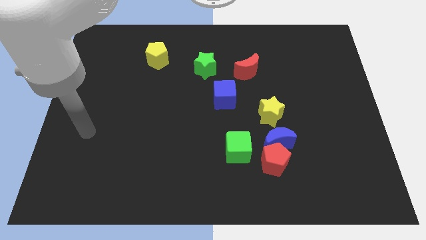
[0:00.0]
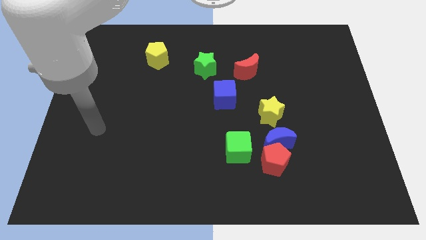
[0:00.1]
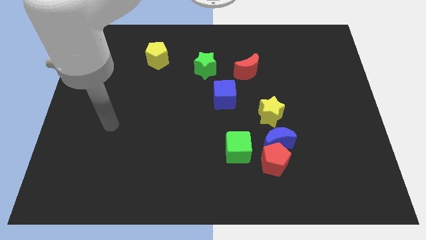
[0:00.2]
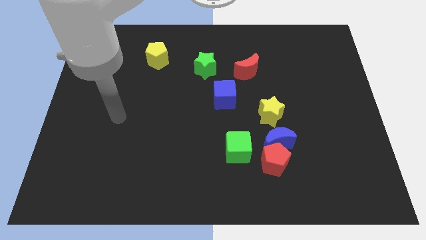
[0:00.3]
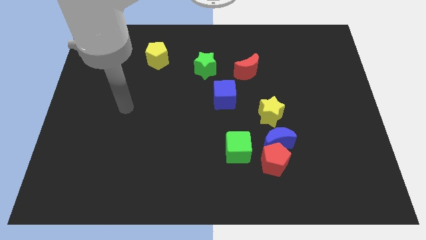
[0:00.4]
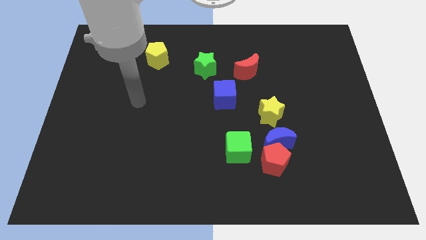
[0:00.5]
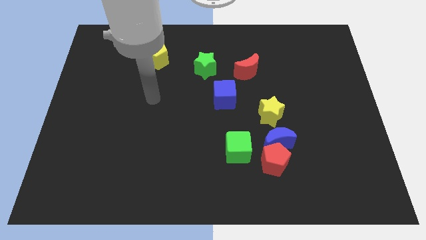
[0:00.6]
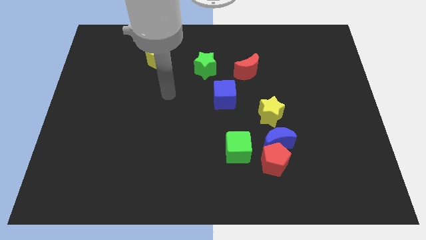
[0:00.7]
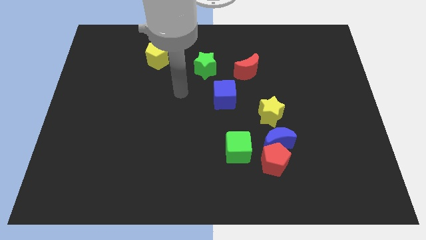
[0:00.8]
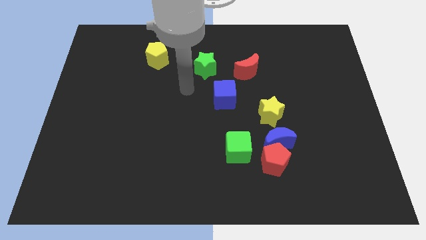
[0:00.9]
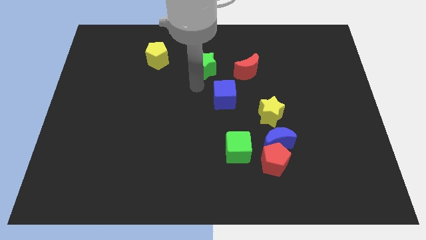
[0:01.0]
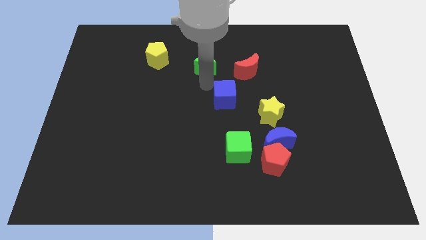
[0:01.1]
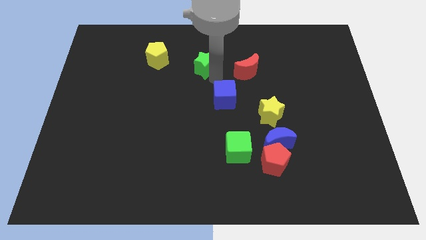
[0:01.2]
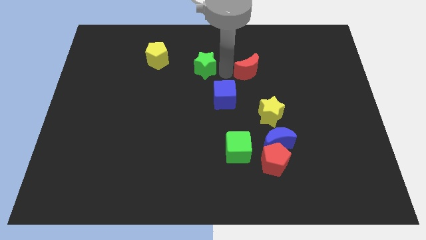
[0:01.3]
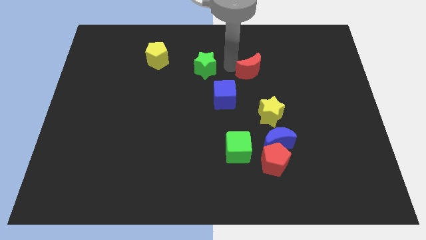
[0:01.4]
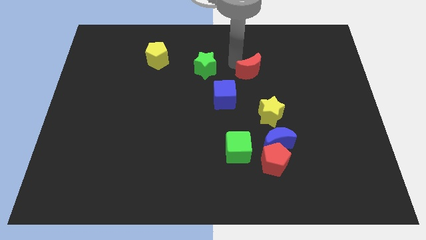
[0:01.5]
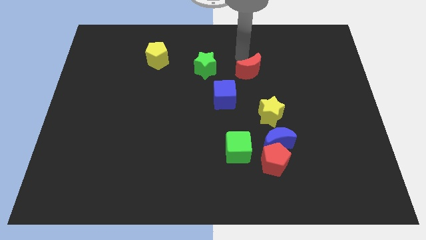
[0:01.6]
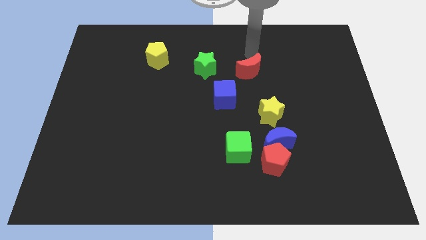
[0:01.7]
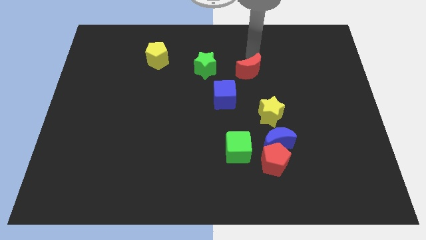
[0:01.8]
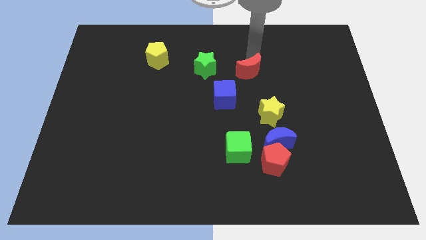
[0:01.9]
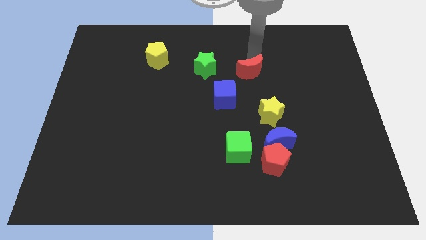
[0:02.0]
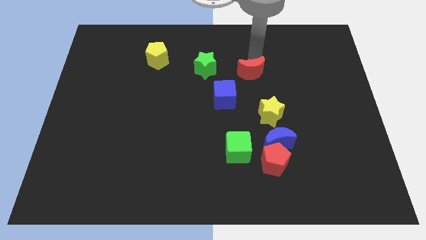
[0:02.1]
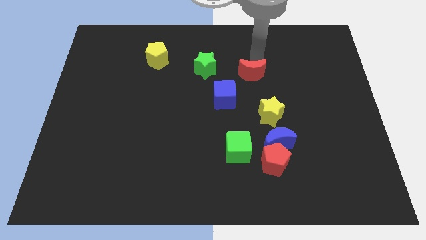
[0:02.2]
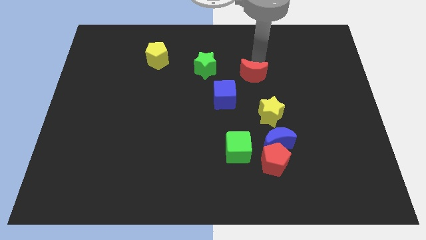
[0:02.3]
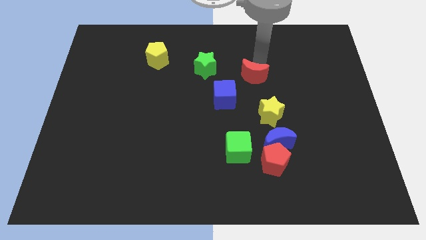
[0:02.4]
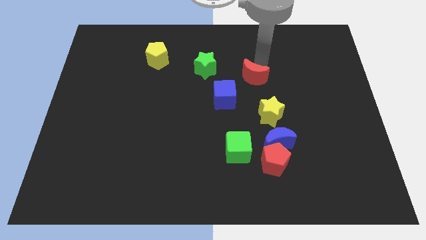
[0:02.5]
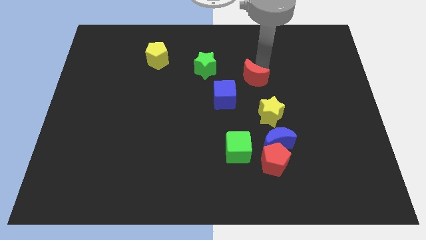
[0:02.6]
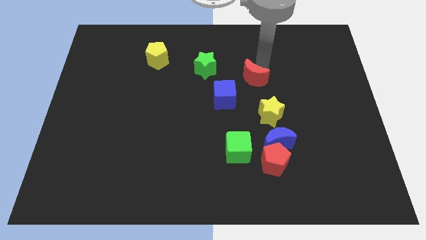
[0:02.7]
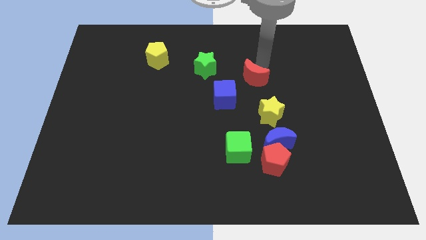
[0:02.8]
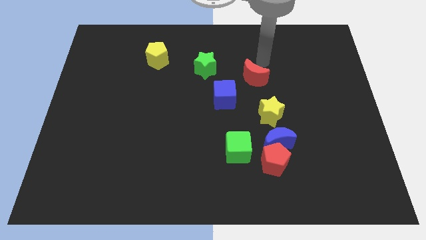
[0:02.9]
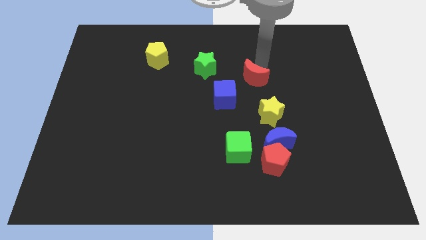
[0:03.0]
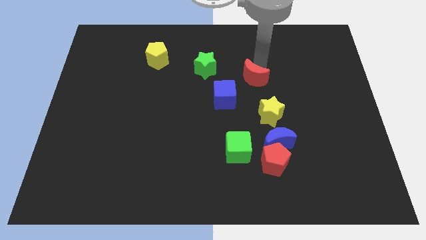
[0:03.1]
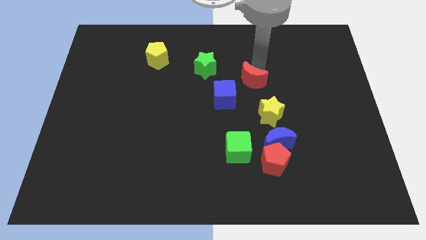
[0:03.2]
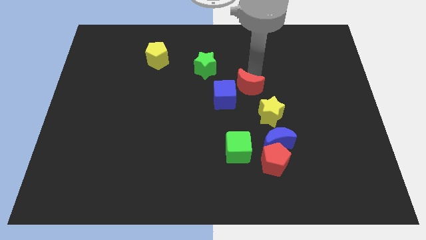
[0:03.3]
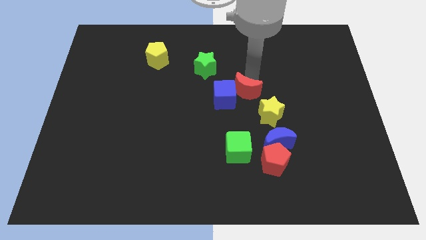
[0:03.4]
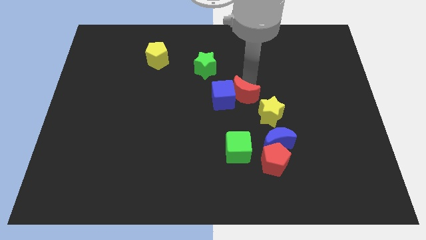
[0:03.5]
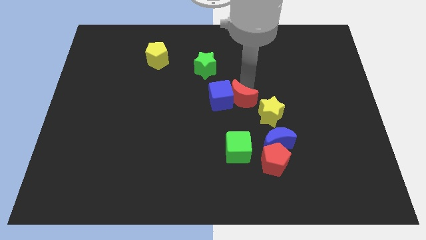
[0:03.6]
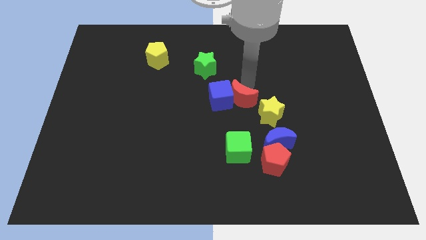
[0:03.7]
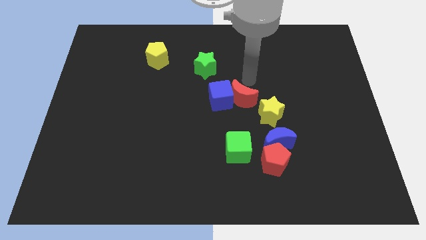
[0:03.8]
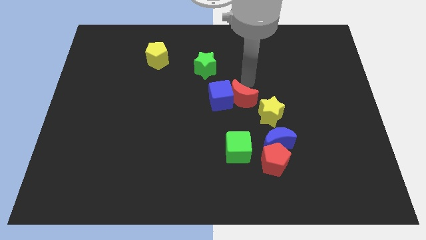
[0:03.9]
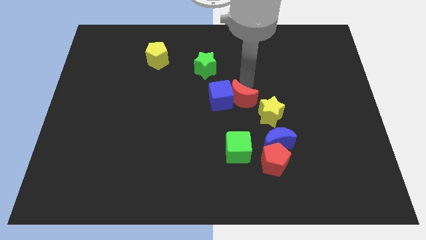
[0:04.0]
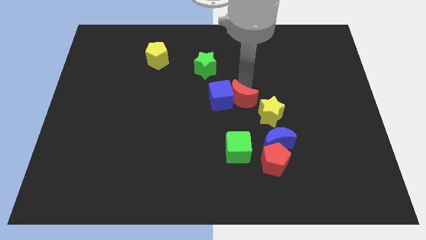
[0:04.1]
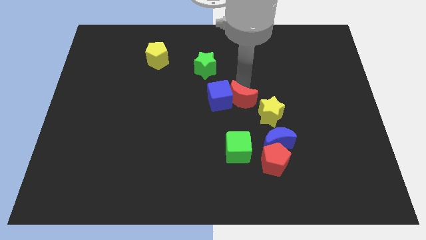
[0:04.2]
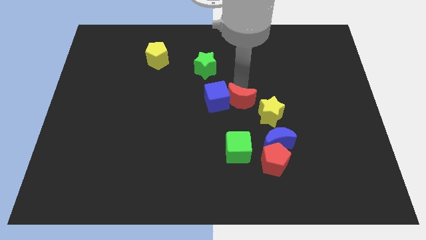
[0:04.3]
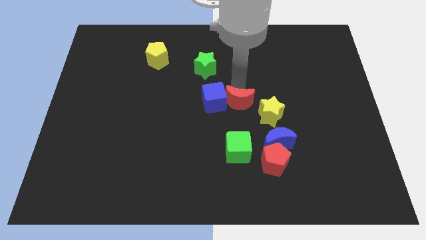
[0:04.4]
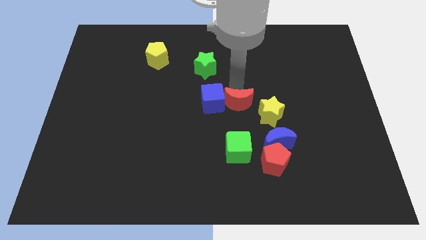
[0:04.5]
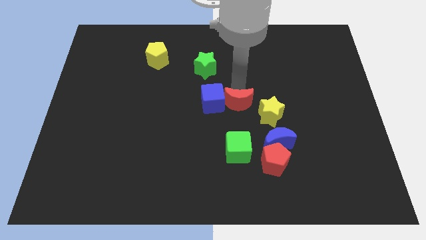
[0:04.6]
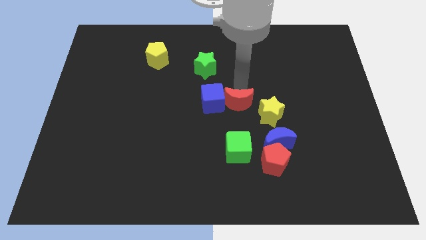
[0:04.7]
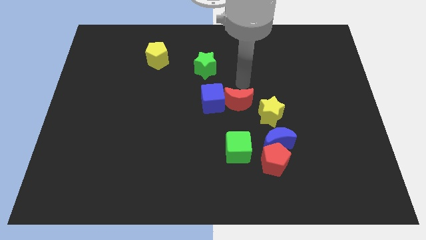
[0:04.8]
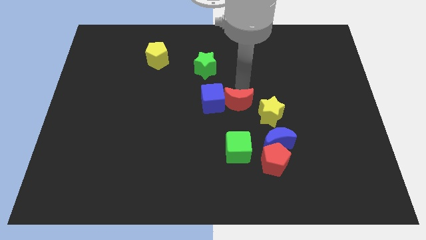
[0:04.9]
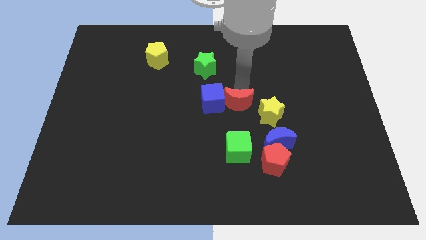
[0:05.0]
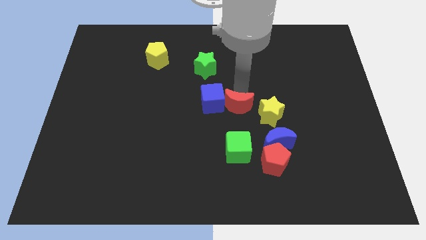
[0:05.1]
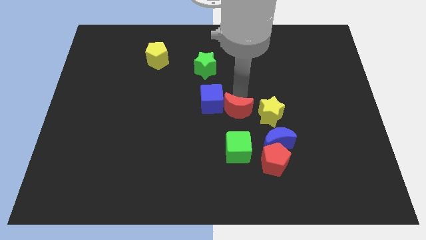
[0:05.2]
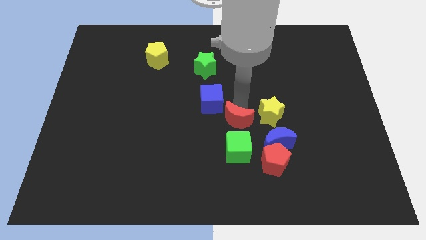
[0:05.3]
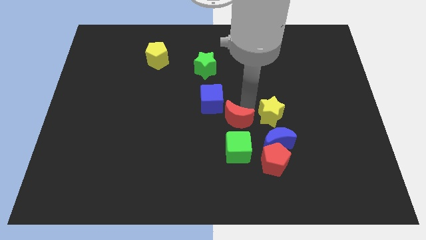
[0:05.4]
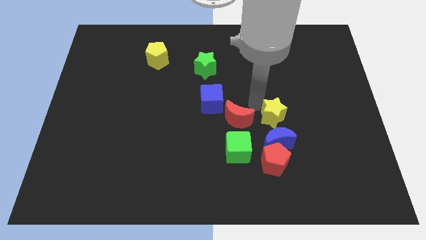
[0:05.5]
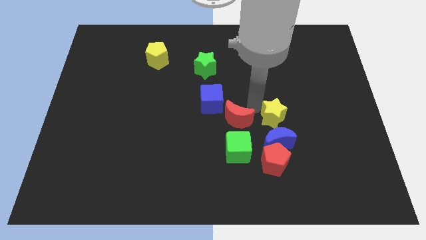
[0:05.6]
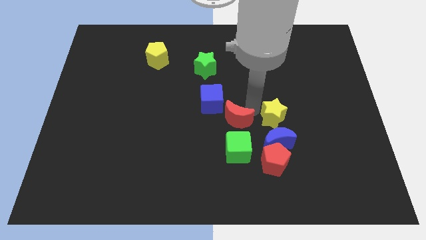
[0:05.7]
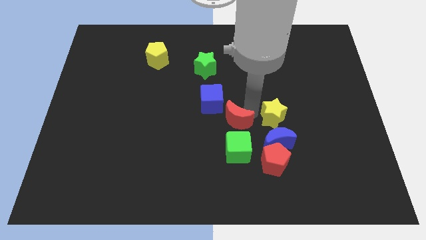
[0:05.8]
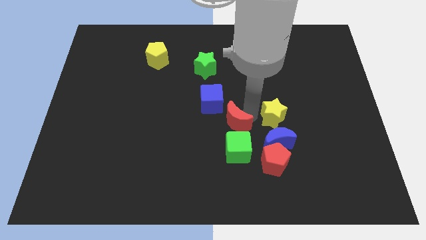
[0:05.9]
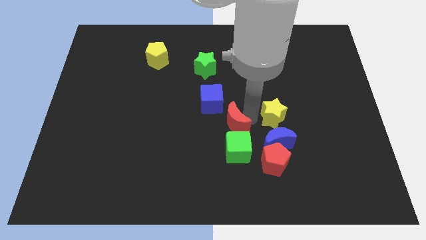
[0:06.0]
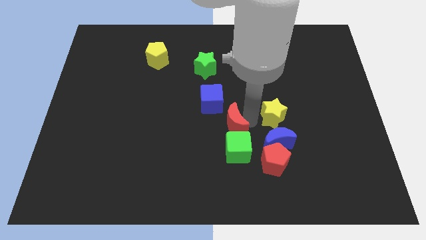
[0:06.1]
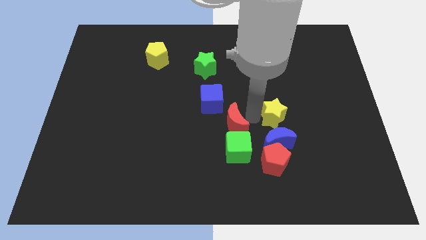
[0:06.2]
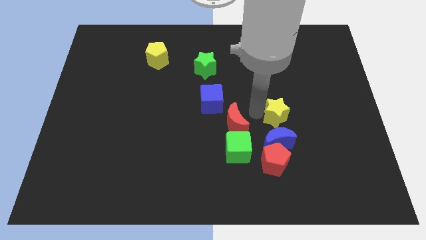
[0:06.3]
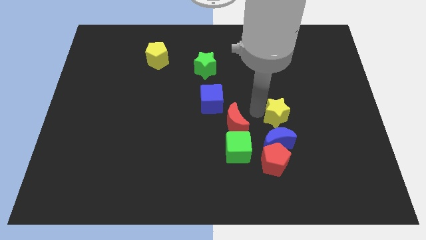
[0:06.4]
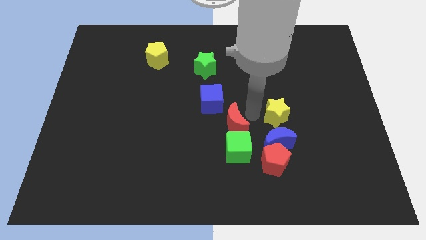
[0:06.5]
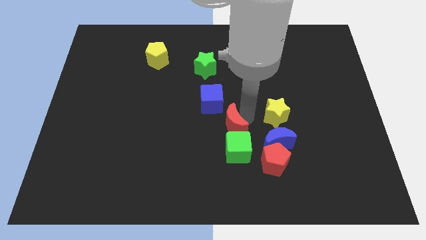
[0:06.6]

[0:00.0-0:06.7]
move the red moon to the bottom side of the blue cube

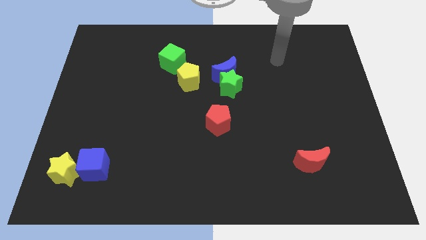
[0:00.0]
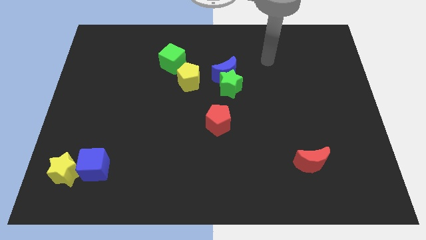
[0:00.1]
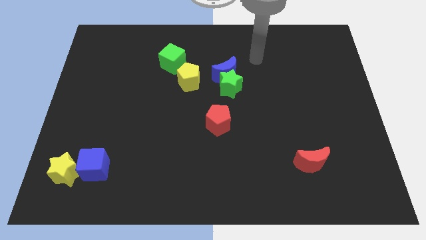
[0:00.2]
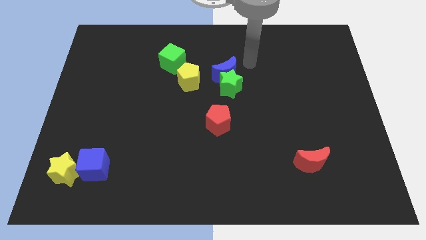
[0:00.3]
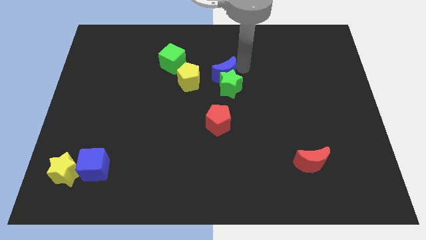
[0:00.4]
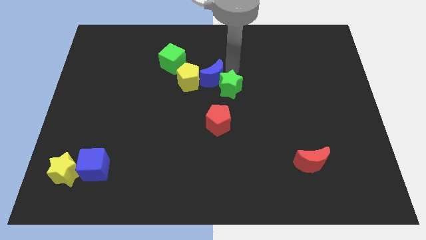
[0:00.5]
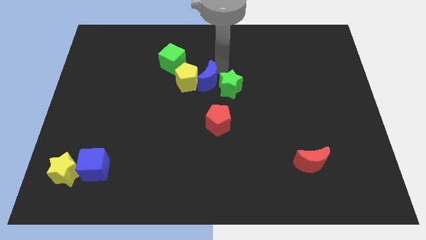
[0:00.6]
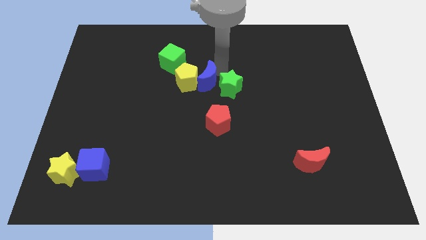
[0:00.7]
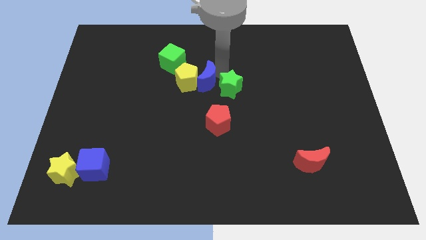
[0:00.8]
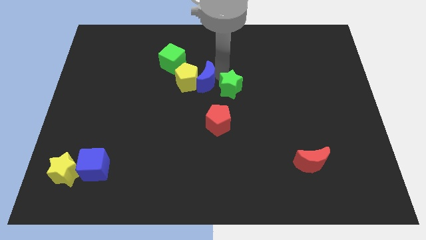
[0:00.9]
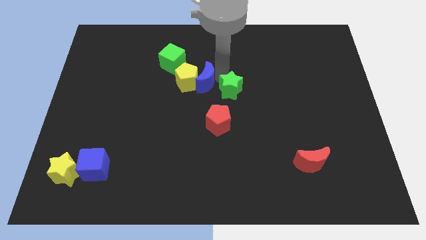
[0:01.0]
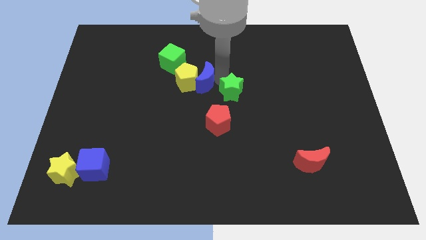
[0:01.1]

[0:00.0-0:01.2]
put the green star to the top right of the red pentagon
